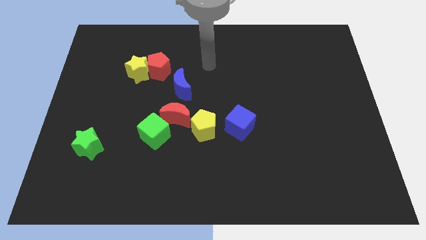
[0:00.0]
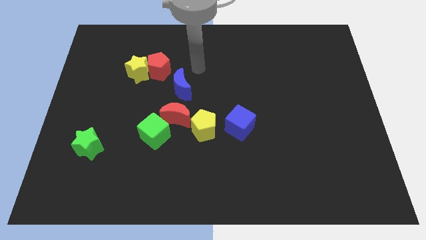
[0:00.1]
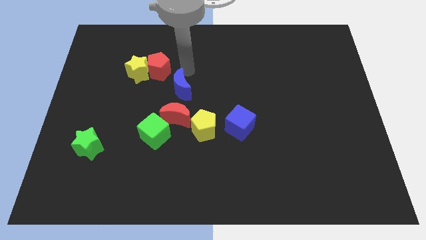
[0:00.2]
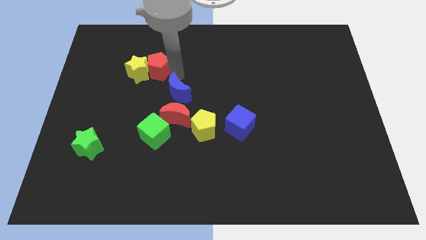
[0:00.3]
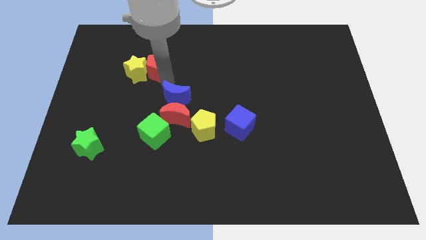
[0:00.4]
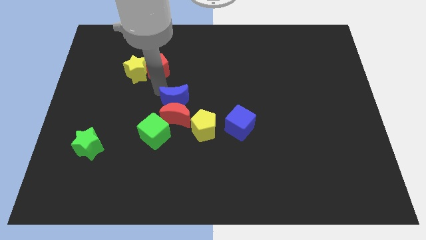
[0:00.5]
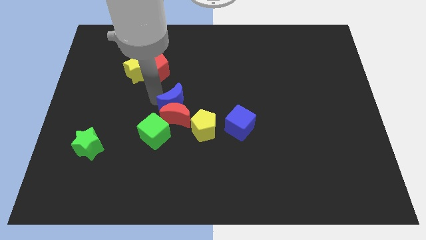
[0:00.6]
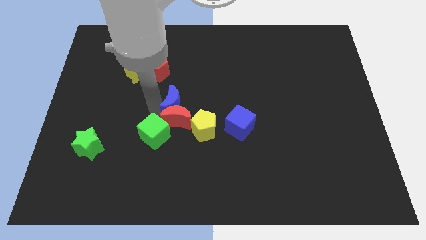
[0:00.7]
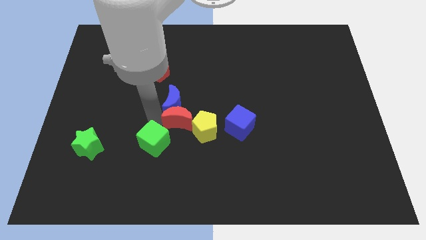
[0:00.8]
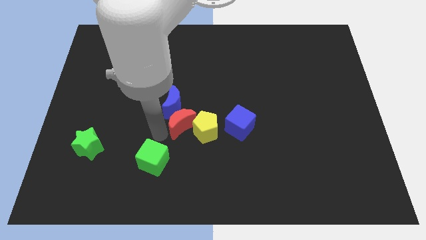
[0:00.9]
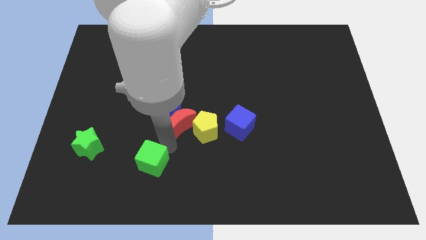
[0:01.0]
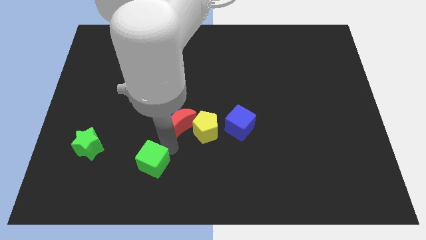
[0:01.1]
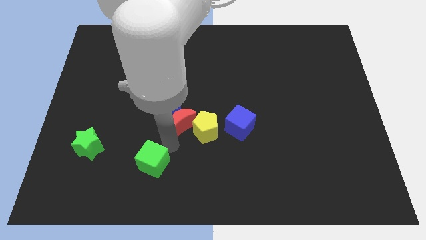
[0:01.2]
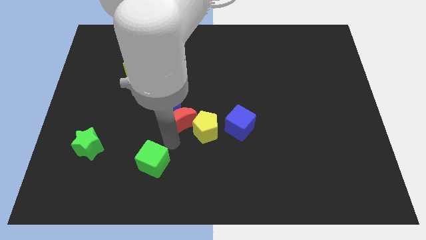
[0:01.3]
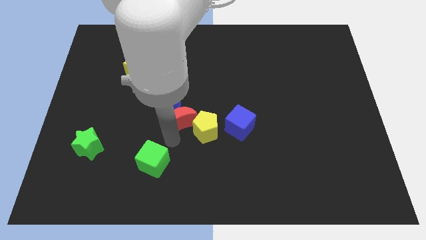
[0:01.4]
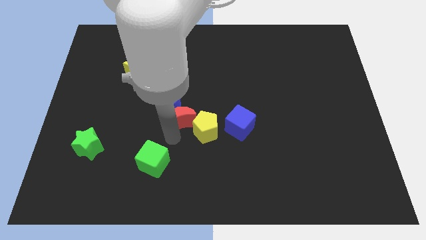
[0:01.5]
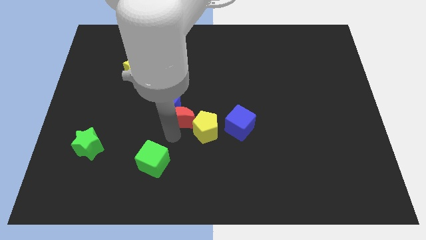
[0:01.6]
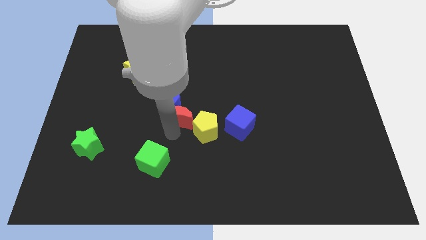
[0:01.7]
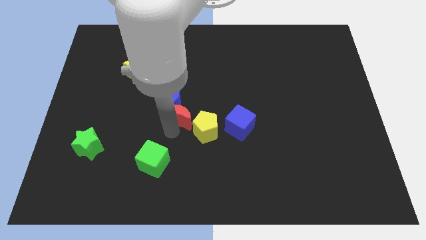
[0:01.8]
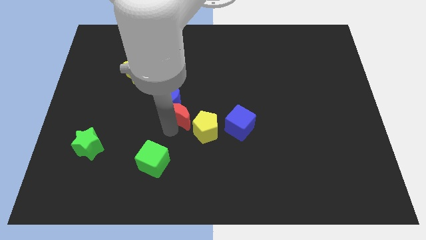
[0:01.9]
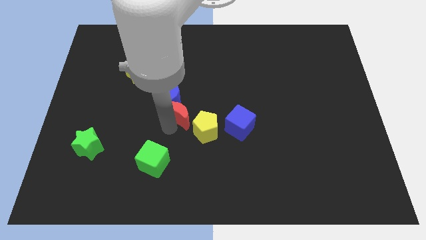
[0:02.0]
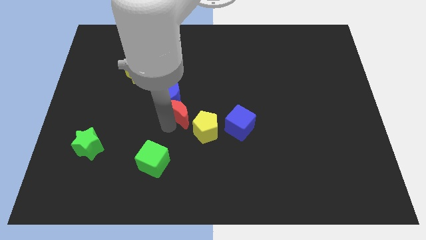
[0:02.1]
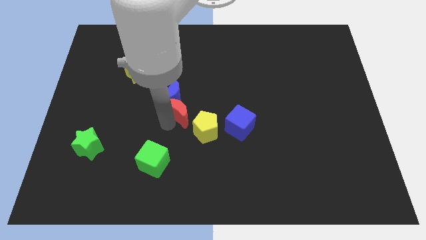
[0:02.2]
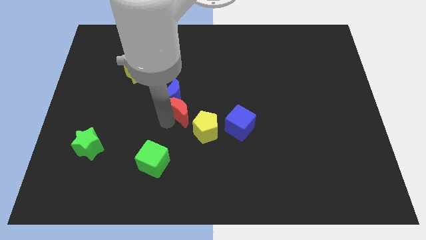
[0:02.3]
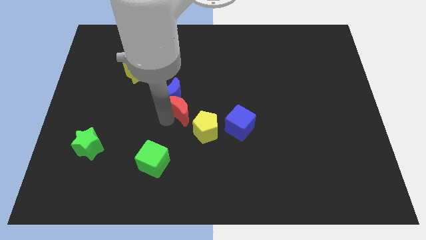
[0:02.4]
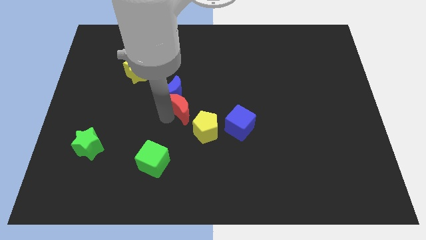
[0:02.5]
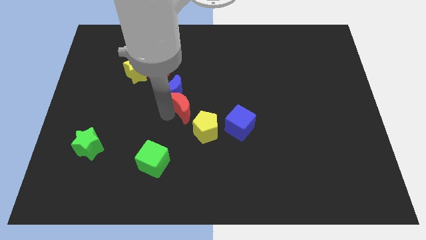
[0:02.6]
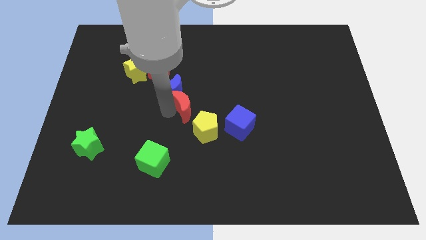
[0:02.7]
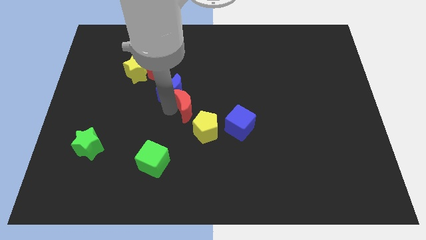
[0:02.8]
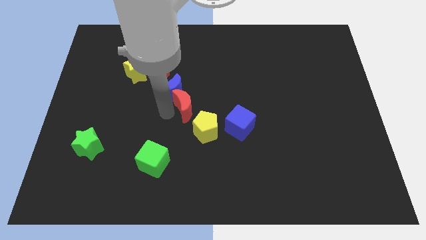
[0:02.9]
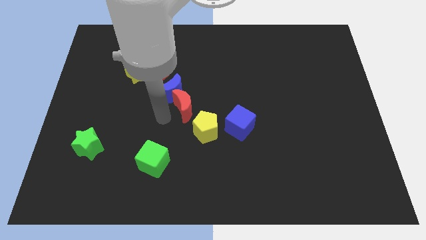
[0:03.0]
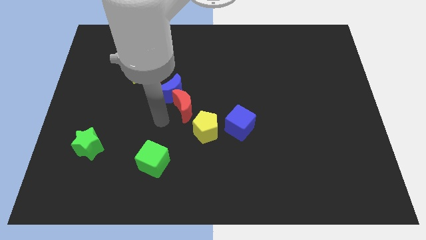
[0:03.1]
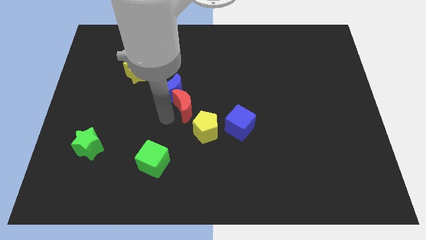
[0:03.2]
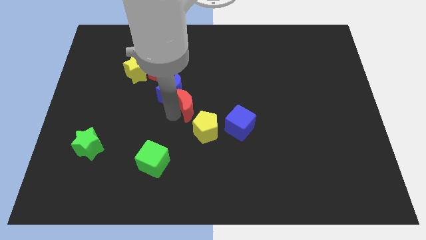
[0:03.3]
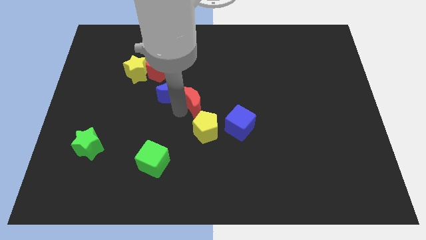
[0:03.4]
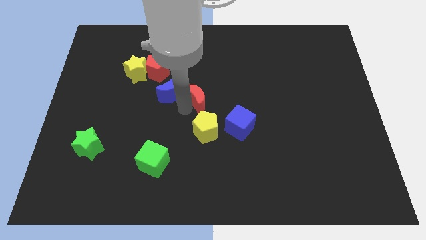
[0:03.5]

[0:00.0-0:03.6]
push the red moon slightly up and right diagonally

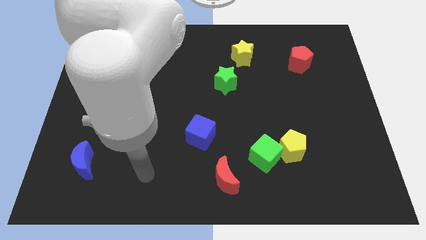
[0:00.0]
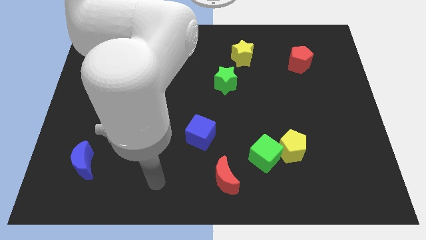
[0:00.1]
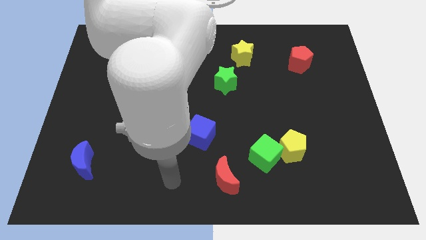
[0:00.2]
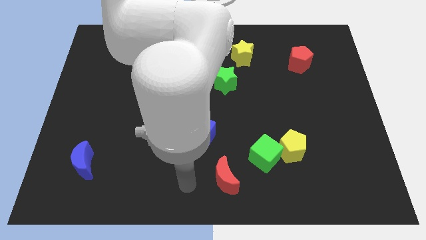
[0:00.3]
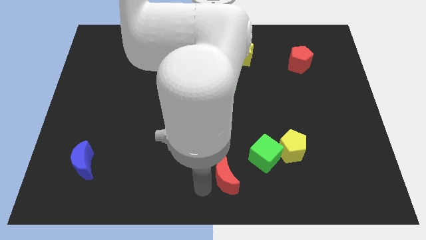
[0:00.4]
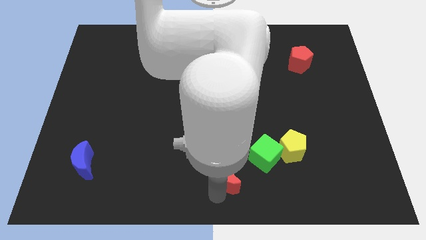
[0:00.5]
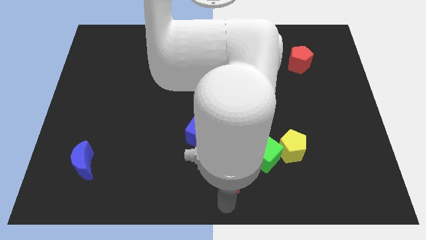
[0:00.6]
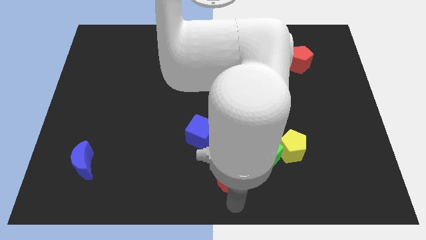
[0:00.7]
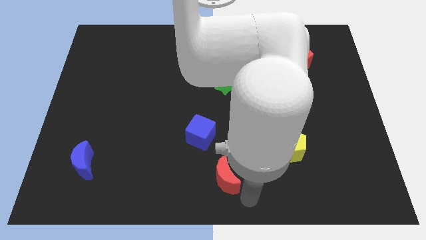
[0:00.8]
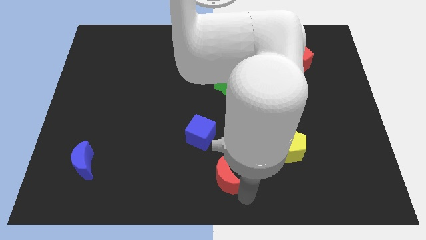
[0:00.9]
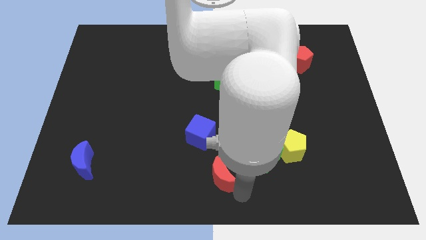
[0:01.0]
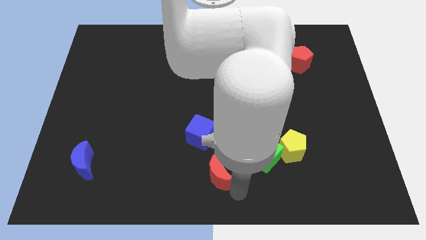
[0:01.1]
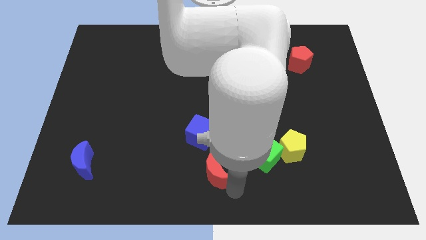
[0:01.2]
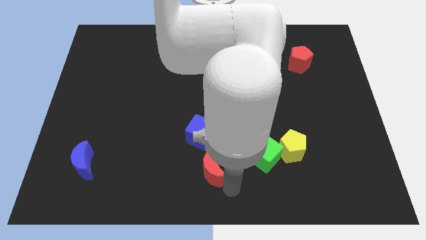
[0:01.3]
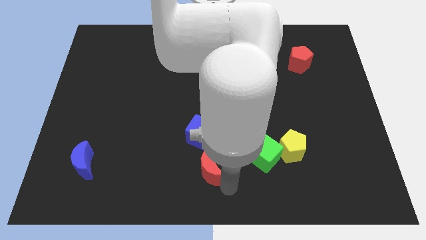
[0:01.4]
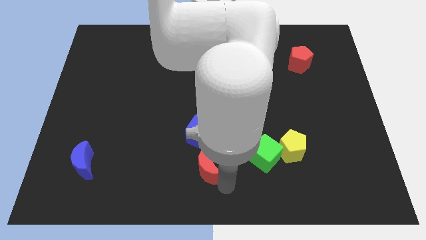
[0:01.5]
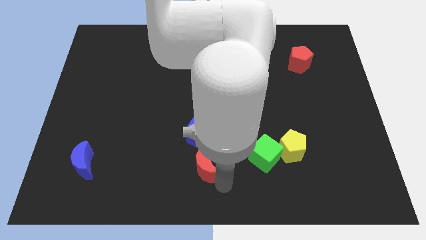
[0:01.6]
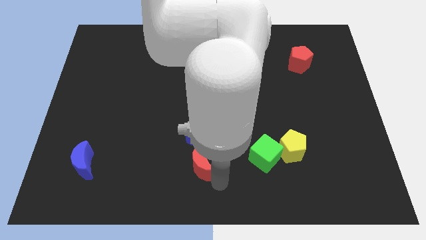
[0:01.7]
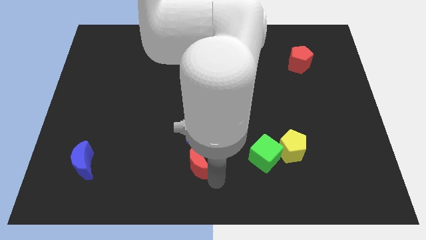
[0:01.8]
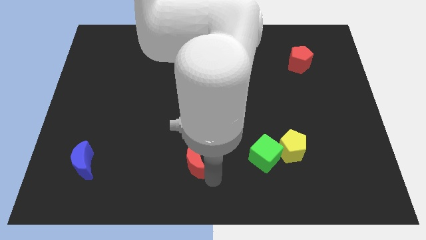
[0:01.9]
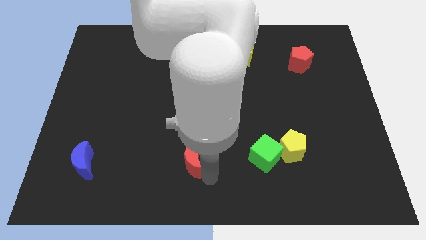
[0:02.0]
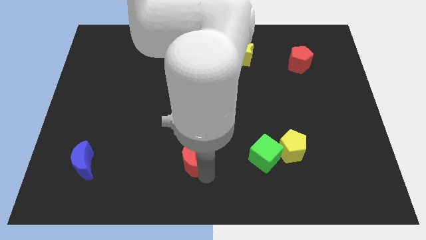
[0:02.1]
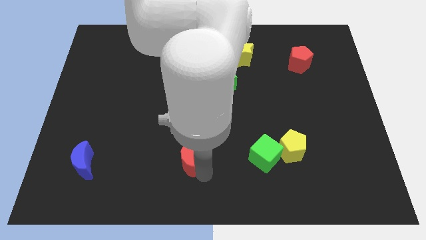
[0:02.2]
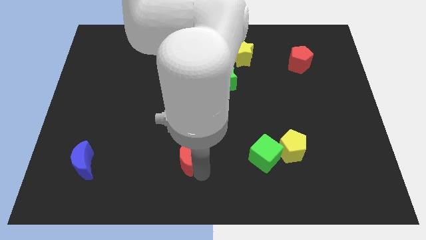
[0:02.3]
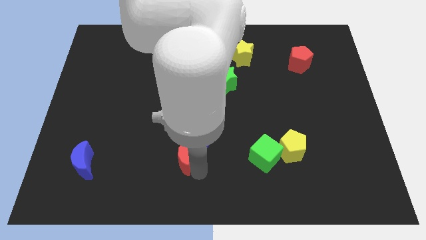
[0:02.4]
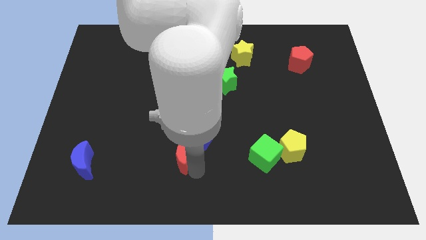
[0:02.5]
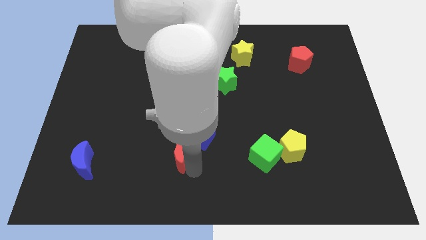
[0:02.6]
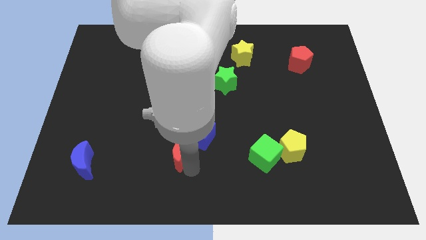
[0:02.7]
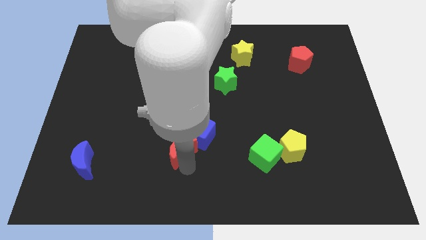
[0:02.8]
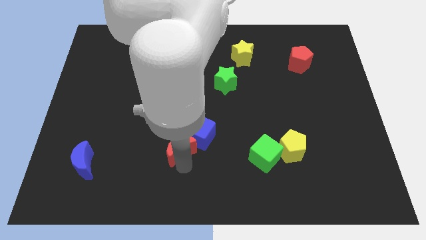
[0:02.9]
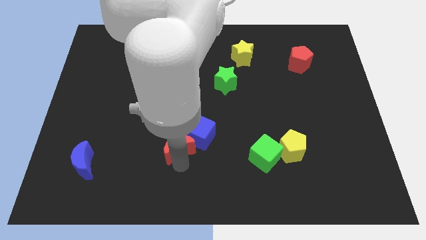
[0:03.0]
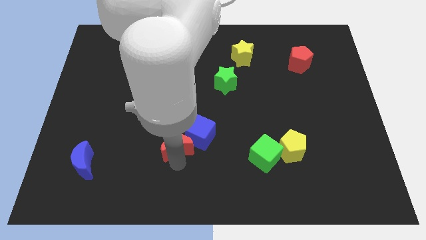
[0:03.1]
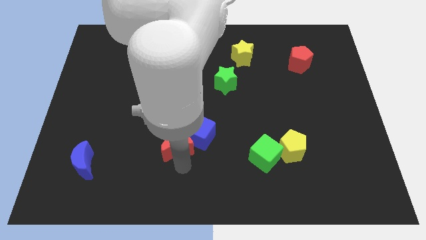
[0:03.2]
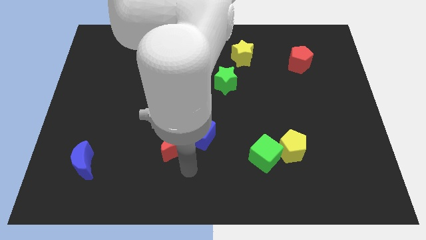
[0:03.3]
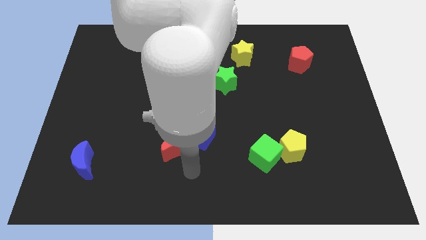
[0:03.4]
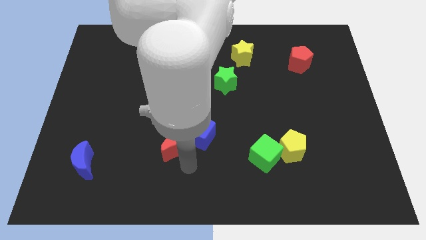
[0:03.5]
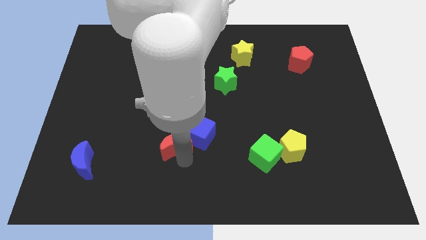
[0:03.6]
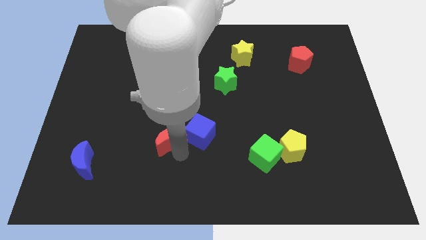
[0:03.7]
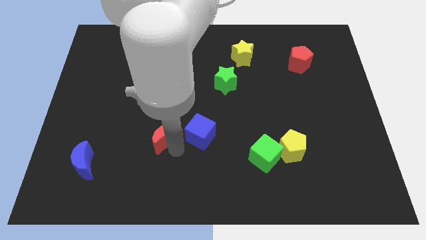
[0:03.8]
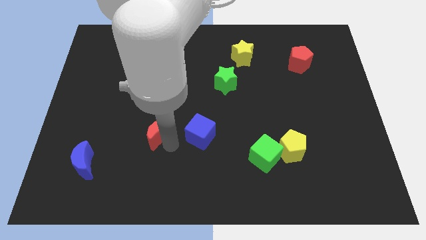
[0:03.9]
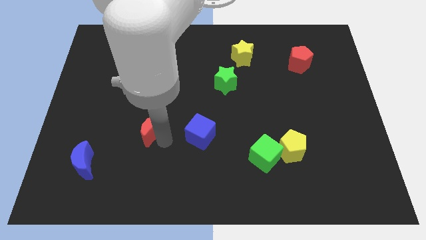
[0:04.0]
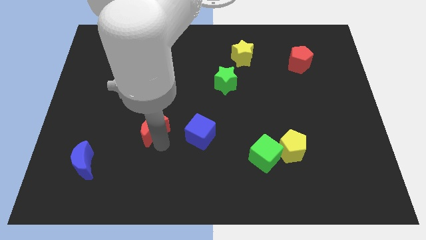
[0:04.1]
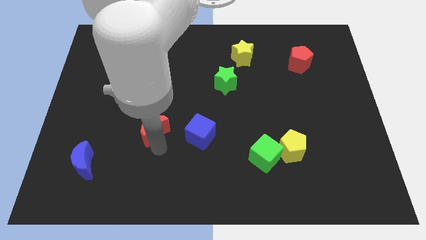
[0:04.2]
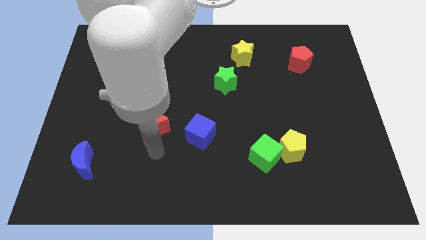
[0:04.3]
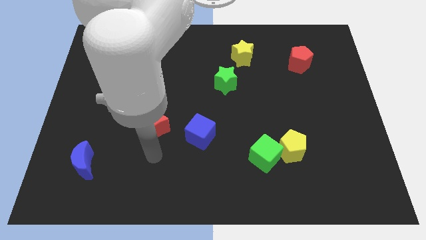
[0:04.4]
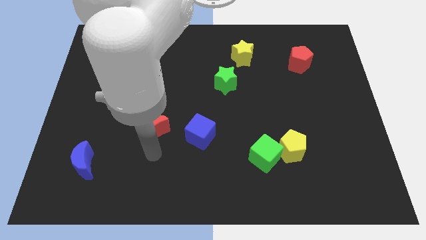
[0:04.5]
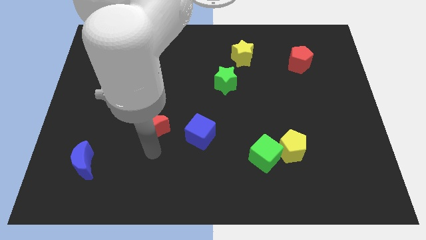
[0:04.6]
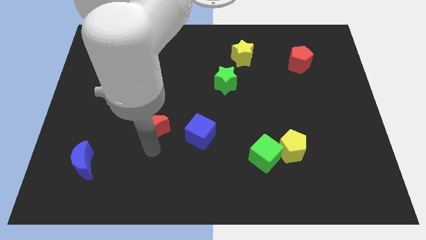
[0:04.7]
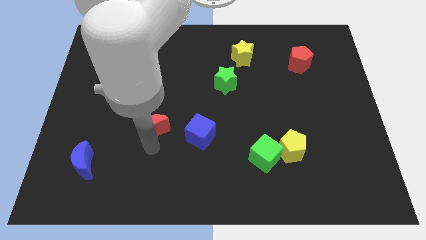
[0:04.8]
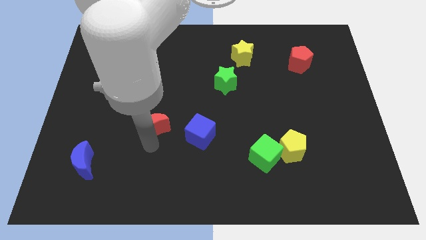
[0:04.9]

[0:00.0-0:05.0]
push the red moon diagonally upwards and left
